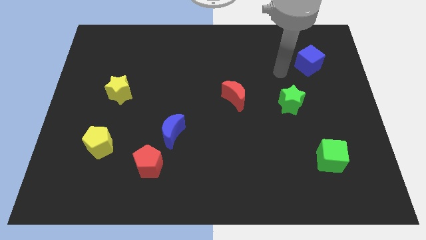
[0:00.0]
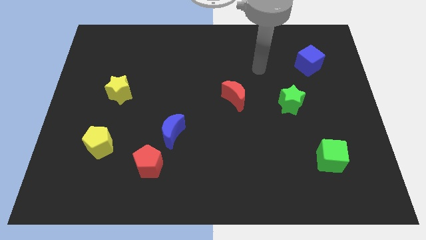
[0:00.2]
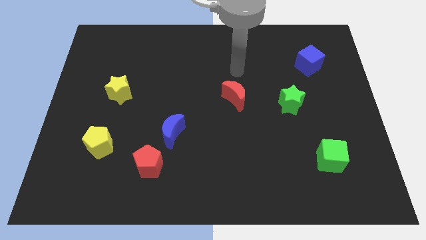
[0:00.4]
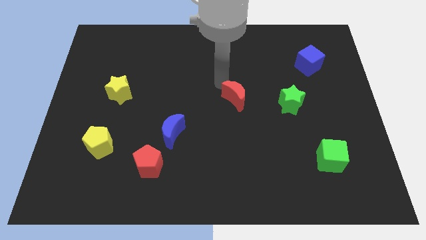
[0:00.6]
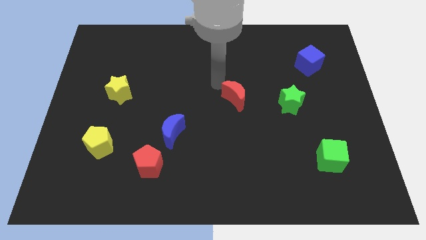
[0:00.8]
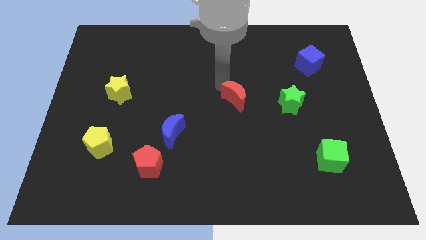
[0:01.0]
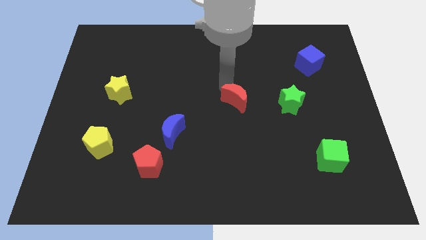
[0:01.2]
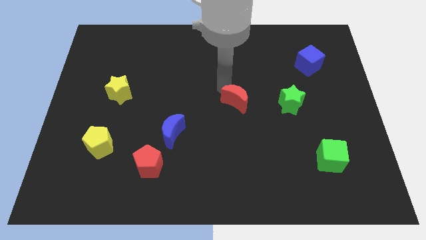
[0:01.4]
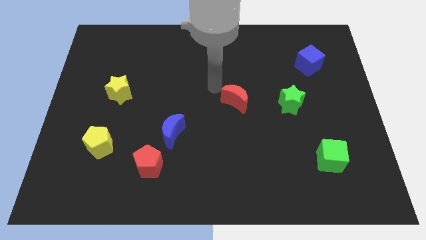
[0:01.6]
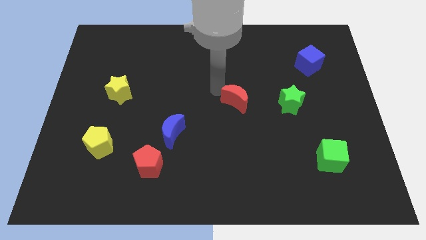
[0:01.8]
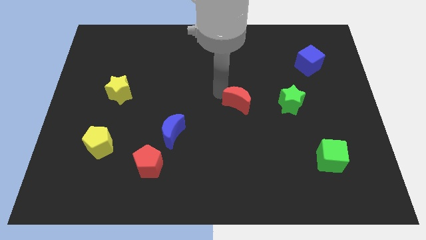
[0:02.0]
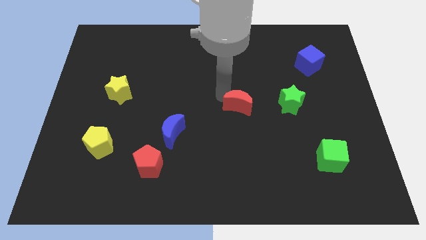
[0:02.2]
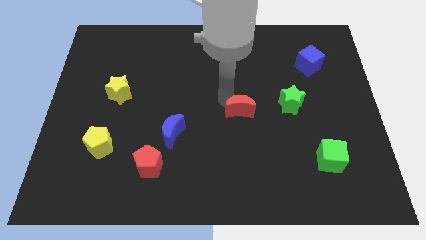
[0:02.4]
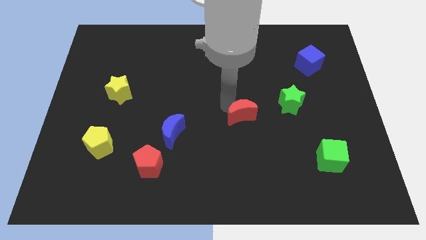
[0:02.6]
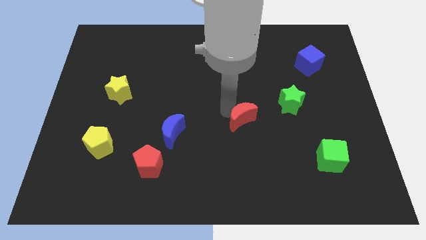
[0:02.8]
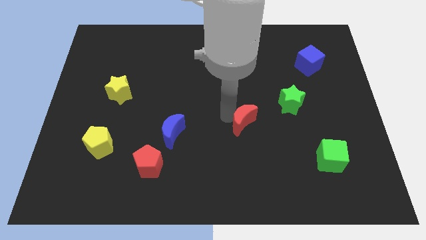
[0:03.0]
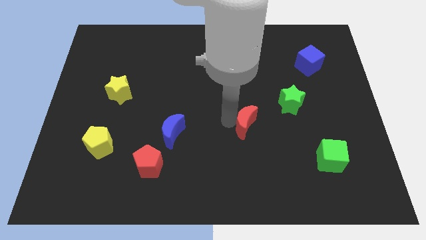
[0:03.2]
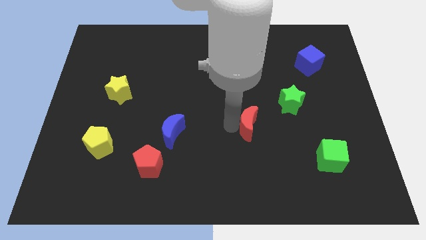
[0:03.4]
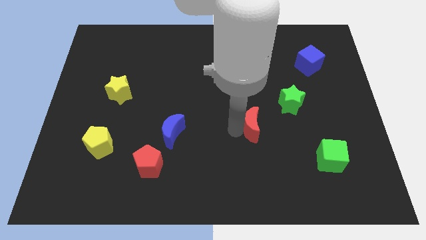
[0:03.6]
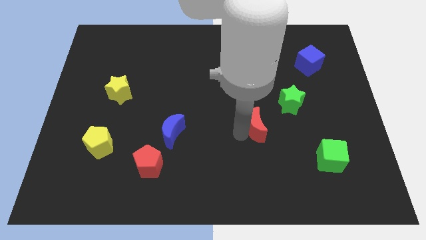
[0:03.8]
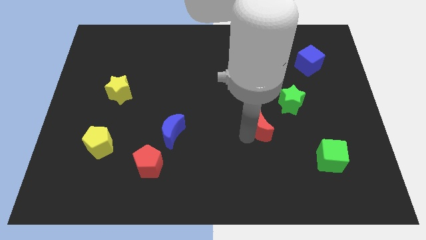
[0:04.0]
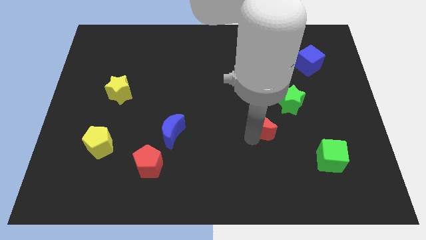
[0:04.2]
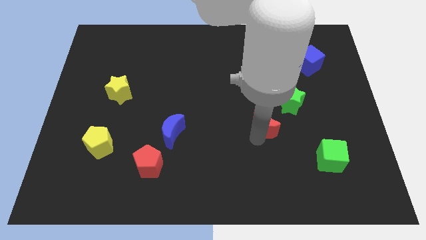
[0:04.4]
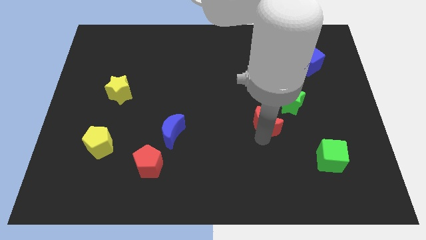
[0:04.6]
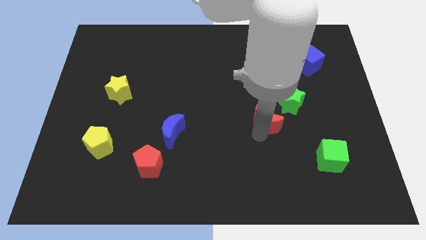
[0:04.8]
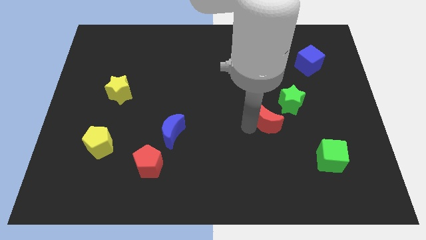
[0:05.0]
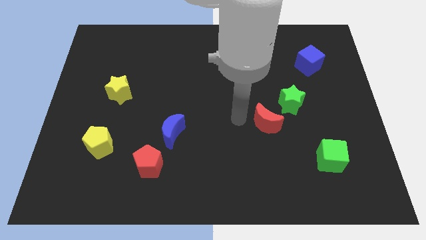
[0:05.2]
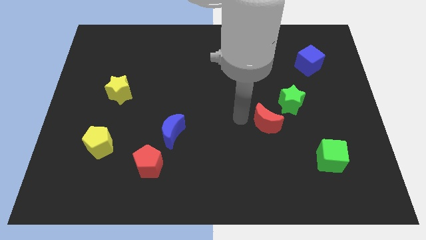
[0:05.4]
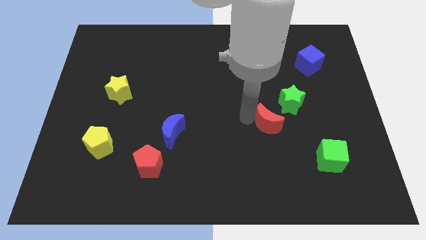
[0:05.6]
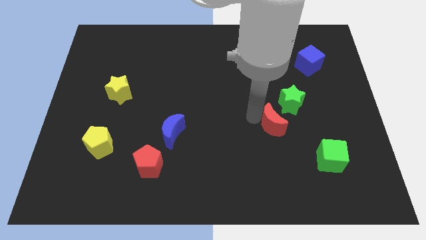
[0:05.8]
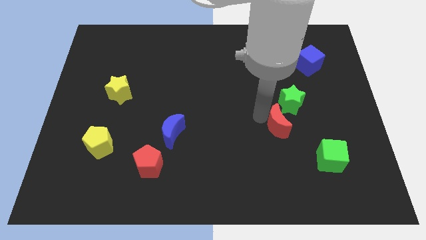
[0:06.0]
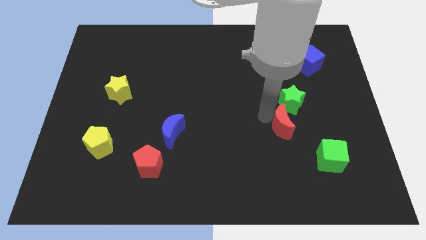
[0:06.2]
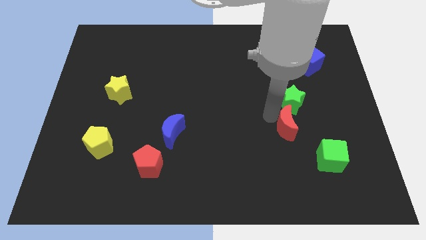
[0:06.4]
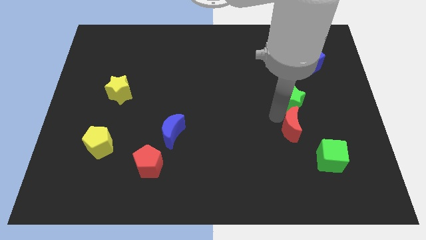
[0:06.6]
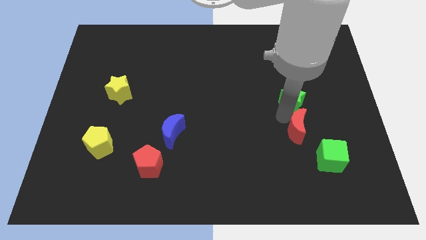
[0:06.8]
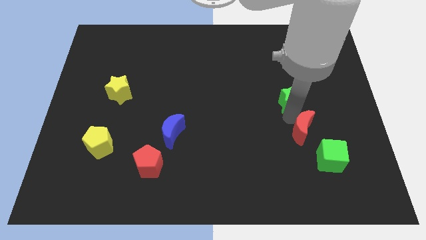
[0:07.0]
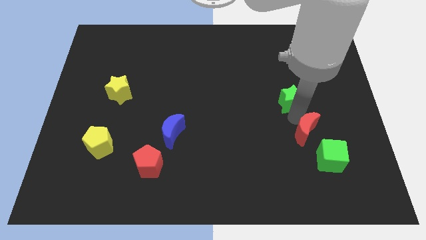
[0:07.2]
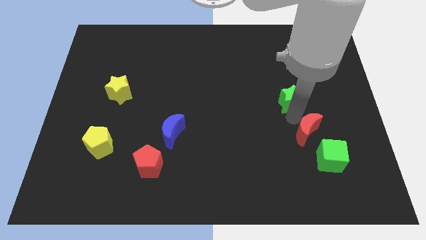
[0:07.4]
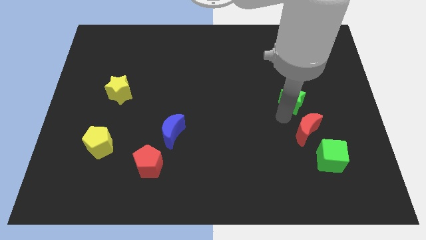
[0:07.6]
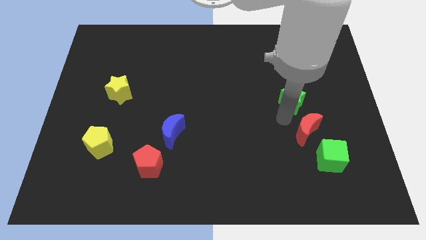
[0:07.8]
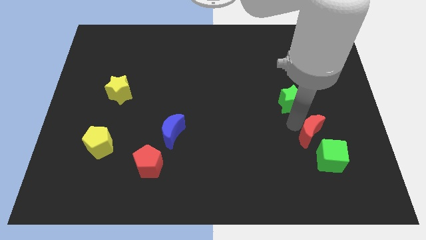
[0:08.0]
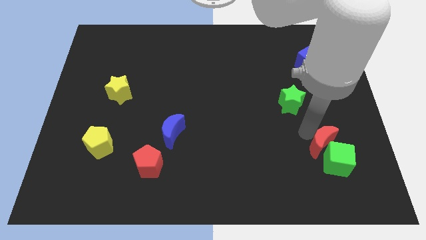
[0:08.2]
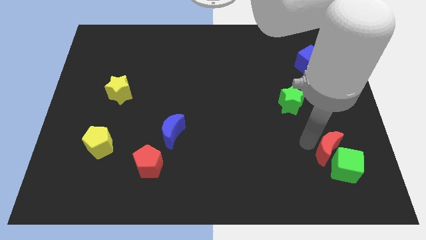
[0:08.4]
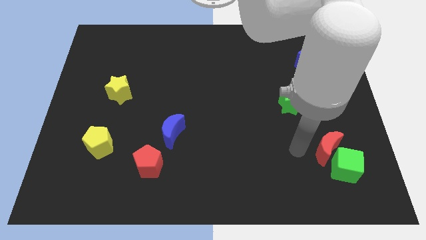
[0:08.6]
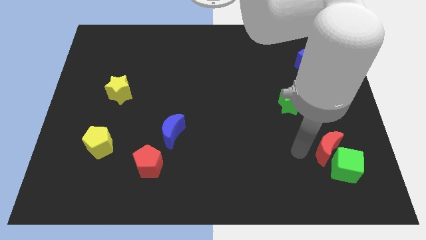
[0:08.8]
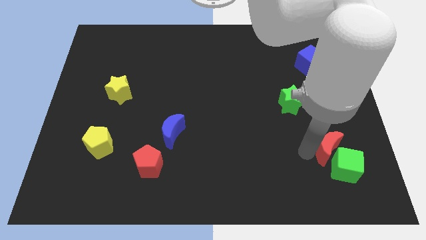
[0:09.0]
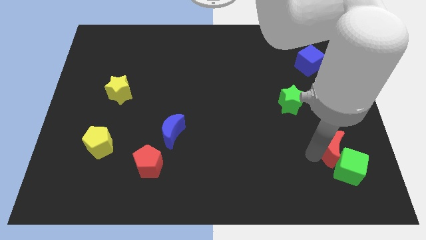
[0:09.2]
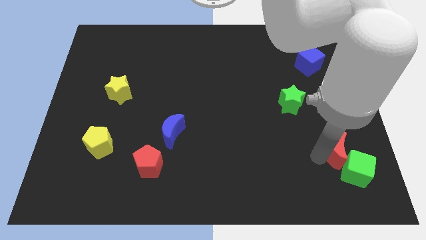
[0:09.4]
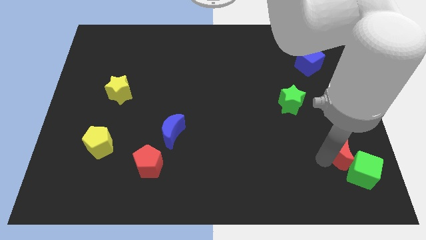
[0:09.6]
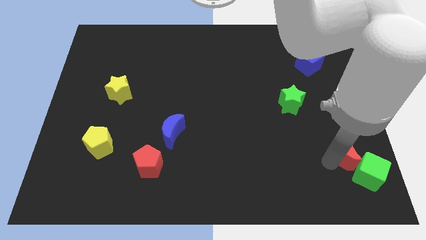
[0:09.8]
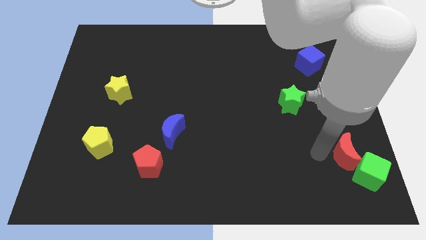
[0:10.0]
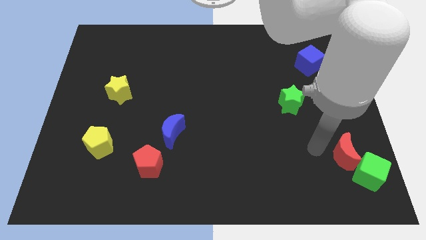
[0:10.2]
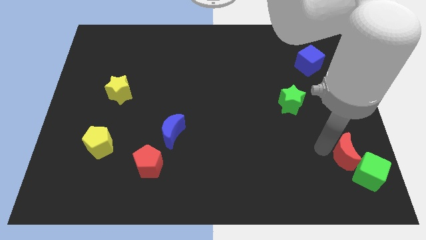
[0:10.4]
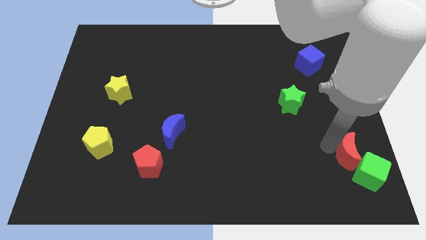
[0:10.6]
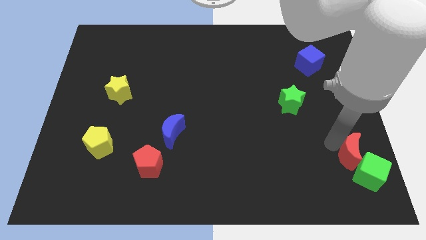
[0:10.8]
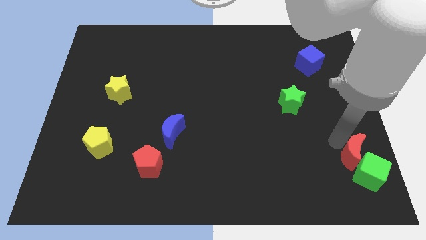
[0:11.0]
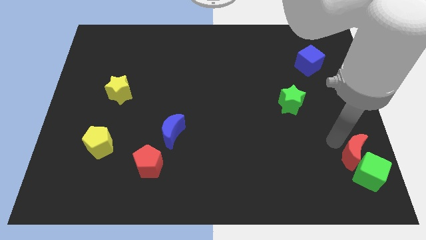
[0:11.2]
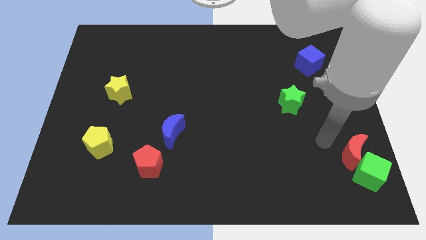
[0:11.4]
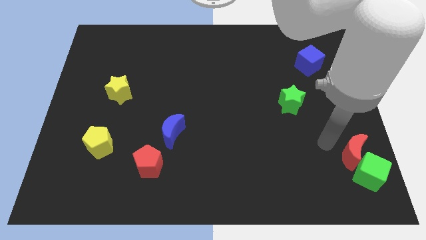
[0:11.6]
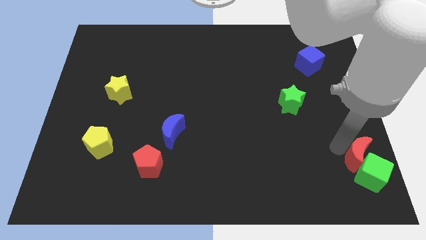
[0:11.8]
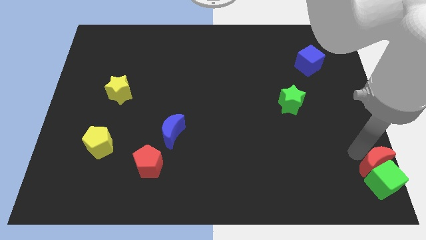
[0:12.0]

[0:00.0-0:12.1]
move the red moon to the bottom right
